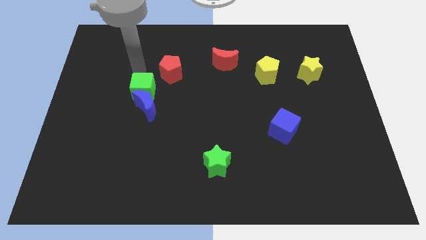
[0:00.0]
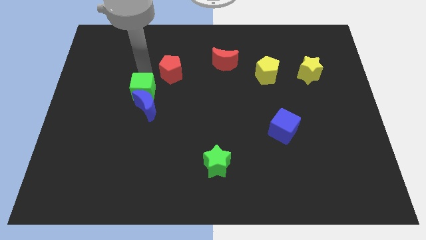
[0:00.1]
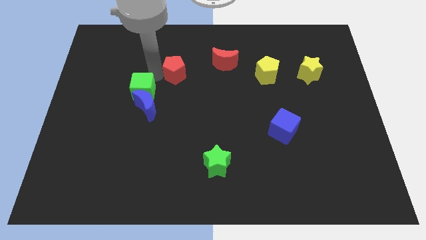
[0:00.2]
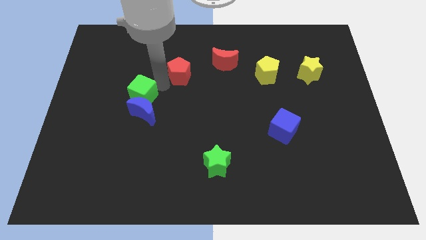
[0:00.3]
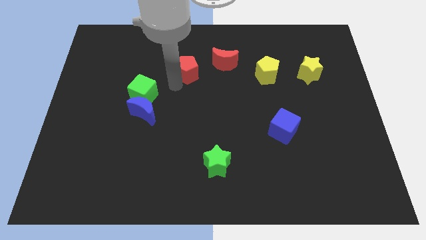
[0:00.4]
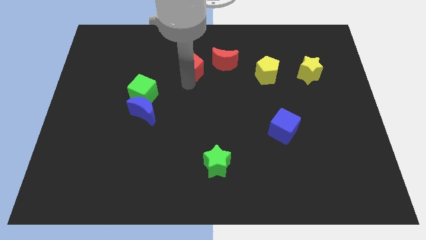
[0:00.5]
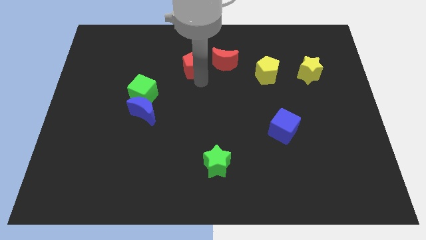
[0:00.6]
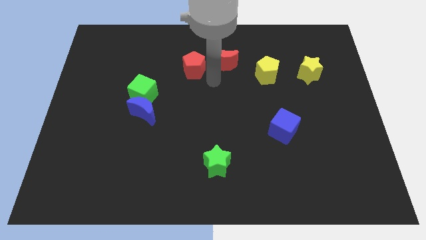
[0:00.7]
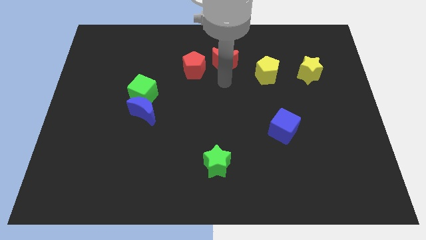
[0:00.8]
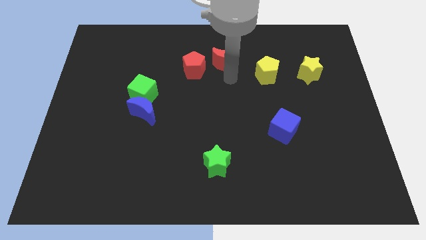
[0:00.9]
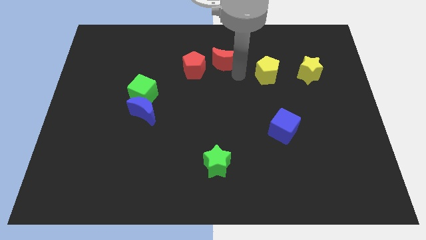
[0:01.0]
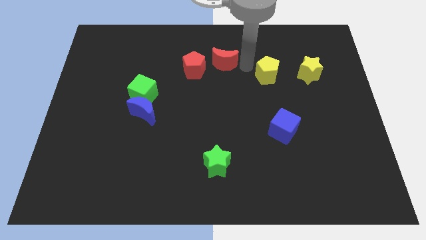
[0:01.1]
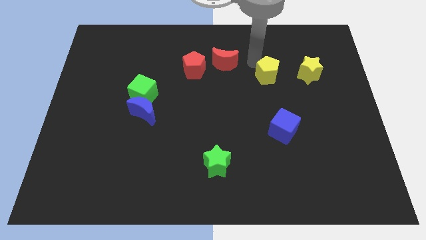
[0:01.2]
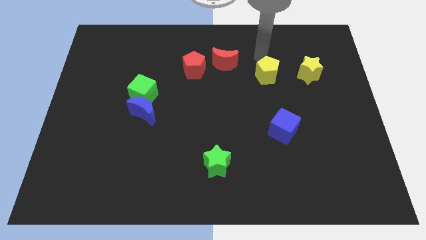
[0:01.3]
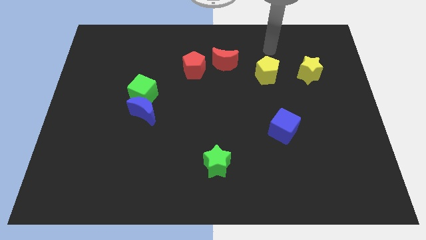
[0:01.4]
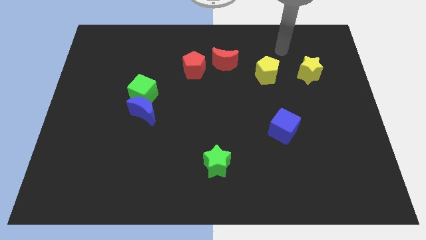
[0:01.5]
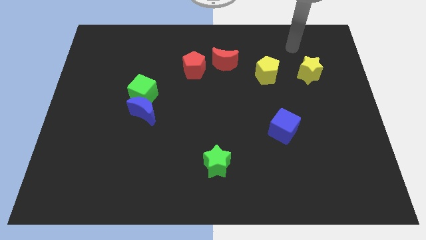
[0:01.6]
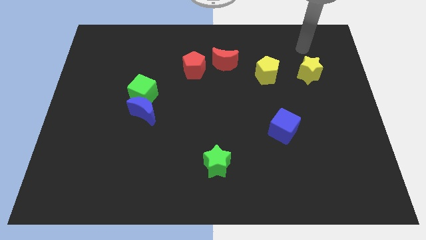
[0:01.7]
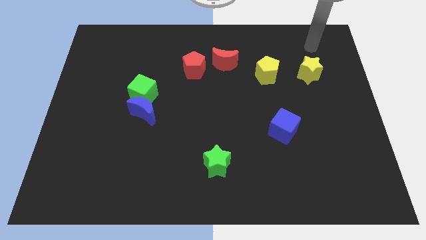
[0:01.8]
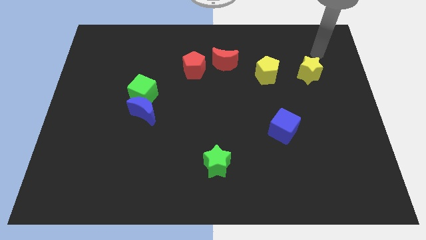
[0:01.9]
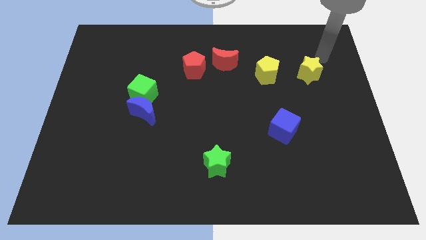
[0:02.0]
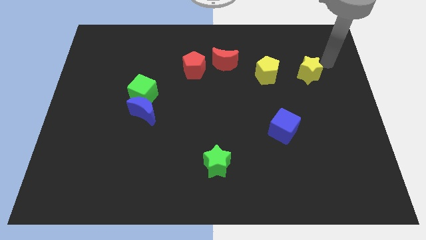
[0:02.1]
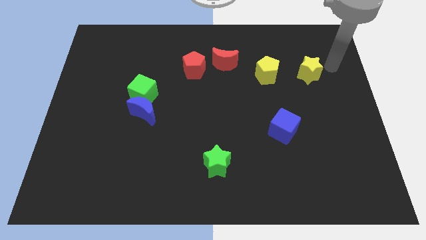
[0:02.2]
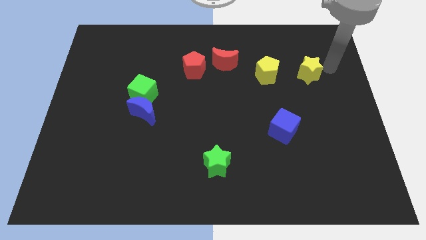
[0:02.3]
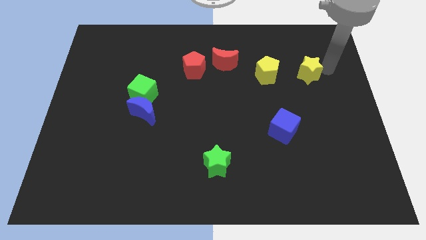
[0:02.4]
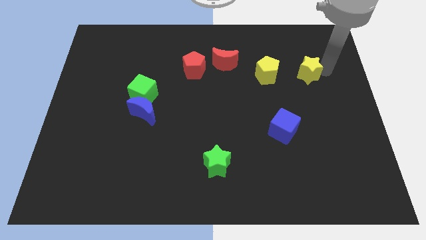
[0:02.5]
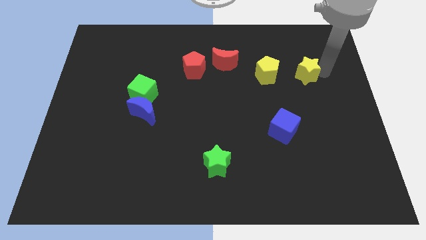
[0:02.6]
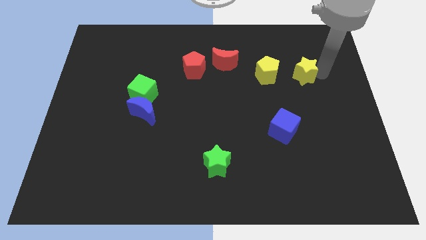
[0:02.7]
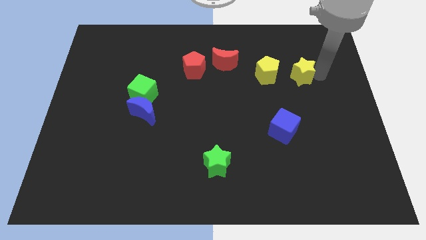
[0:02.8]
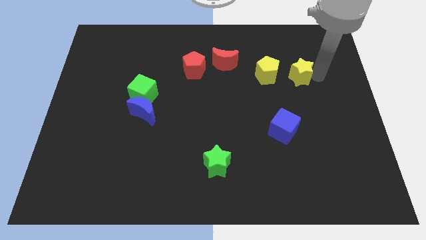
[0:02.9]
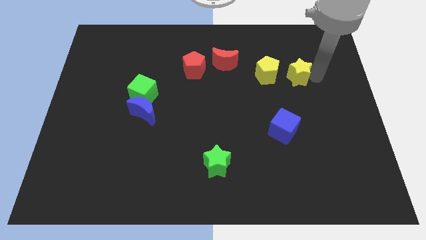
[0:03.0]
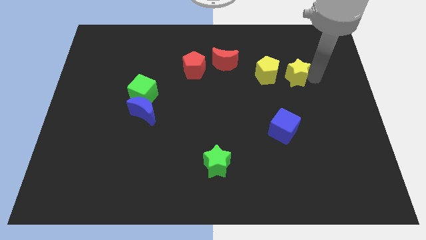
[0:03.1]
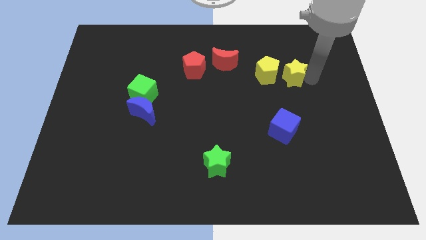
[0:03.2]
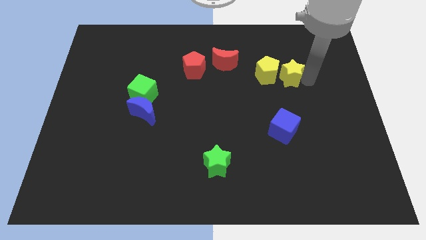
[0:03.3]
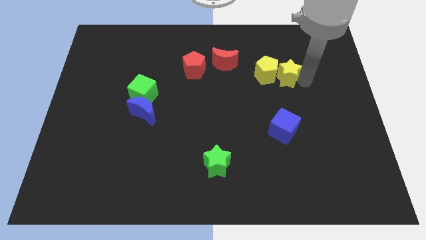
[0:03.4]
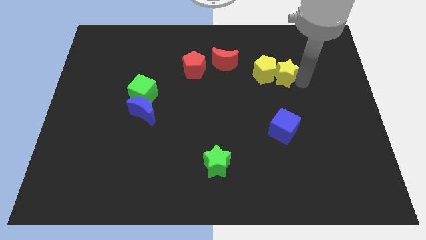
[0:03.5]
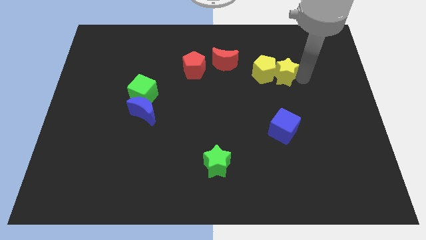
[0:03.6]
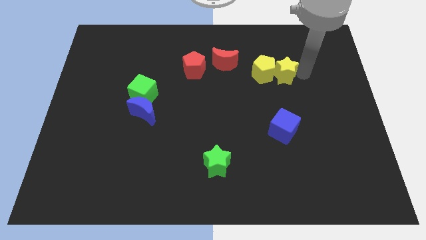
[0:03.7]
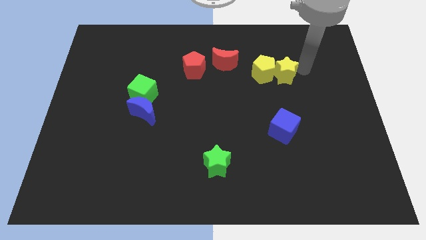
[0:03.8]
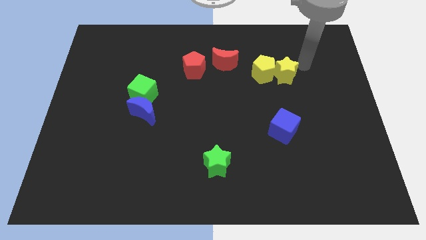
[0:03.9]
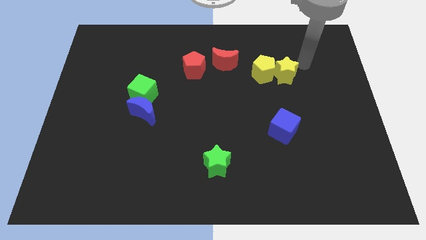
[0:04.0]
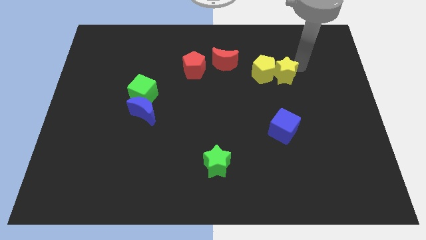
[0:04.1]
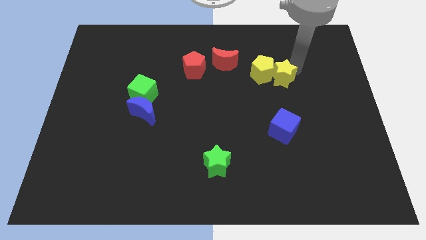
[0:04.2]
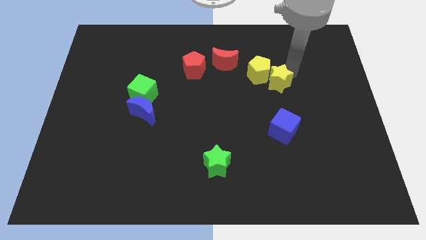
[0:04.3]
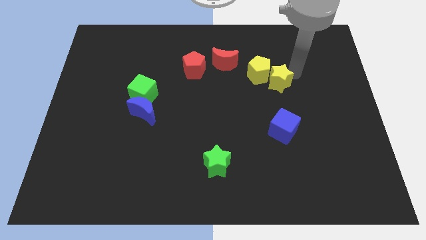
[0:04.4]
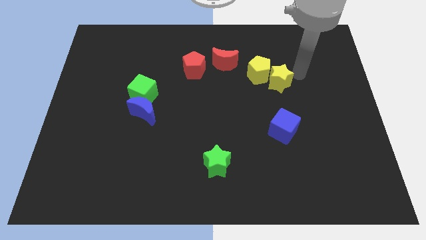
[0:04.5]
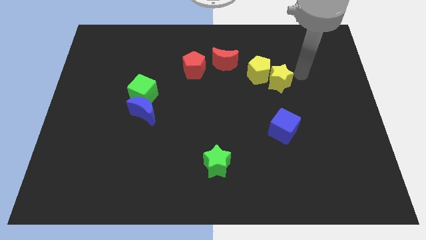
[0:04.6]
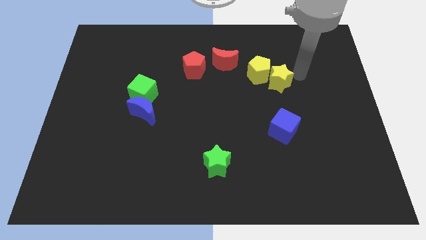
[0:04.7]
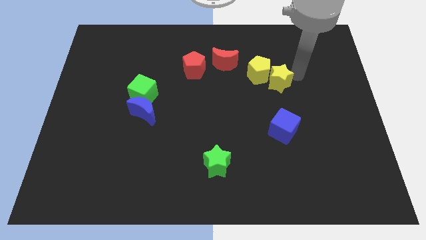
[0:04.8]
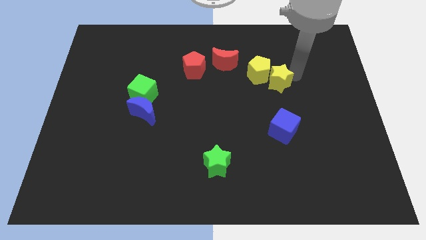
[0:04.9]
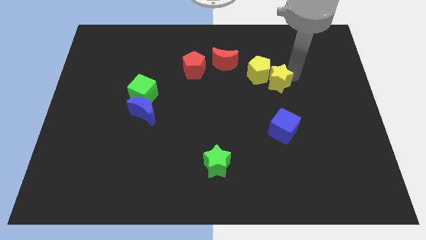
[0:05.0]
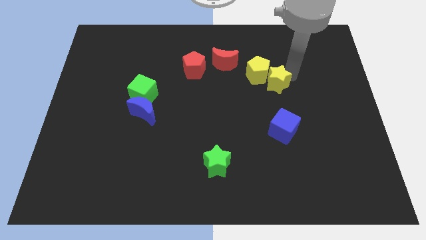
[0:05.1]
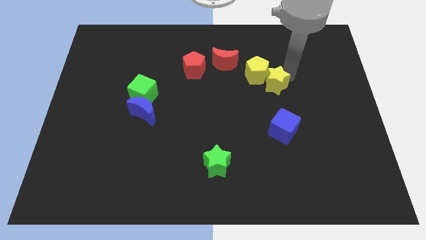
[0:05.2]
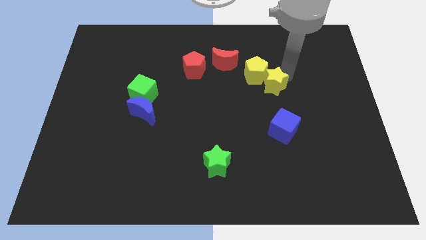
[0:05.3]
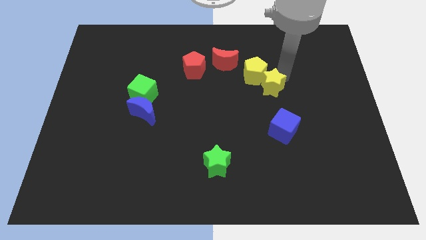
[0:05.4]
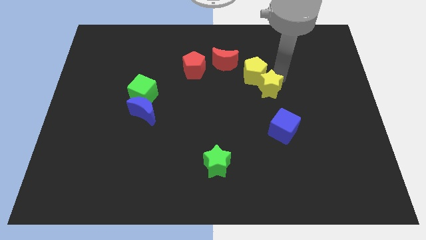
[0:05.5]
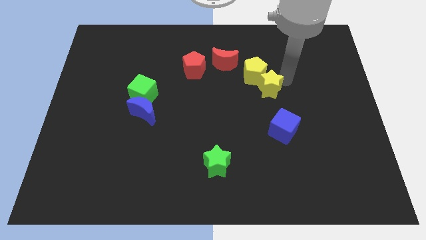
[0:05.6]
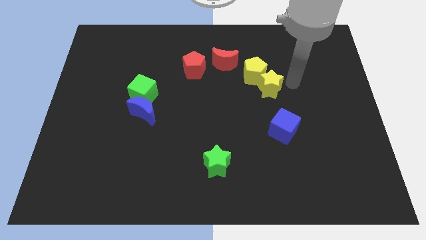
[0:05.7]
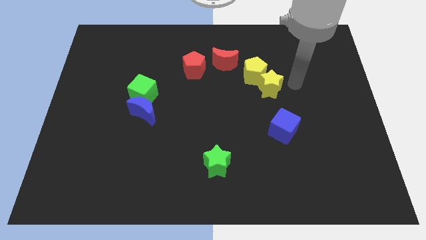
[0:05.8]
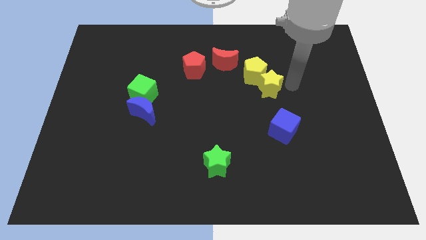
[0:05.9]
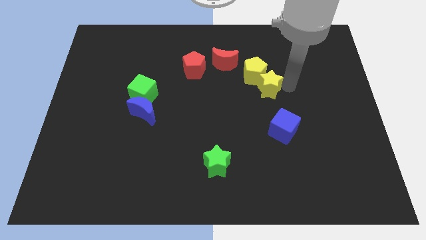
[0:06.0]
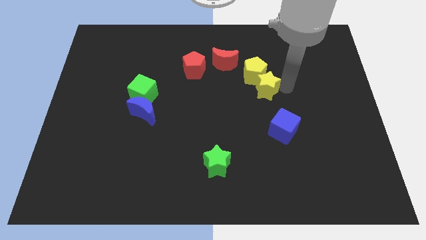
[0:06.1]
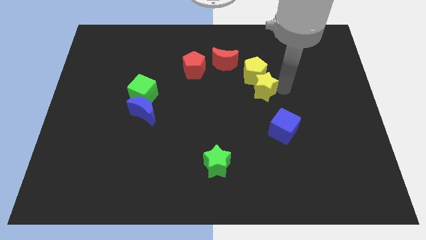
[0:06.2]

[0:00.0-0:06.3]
push the yellow star to the middle

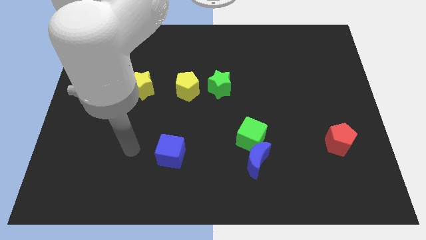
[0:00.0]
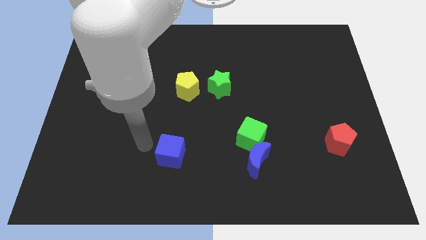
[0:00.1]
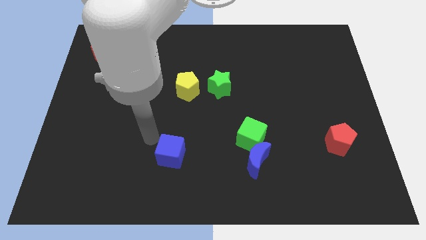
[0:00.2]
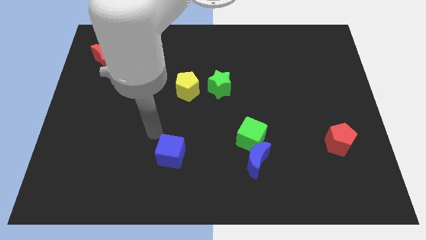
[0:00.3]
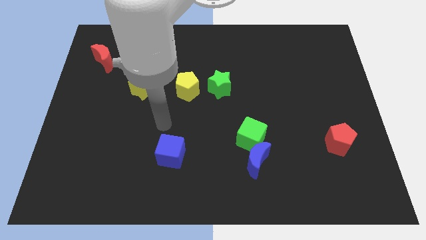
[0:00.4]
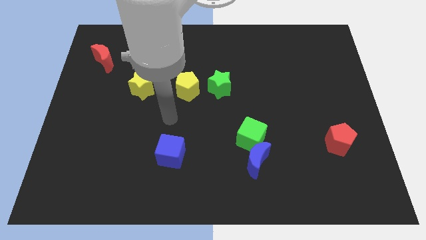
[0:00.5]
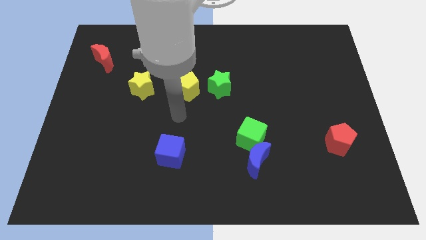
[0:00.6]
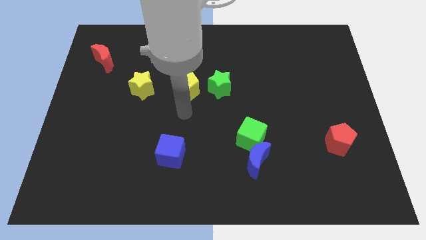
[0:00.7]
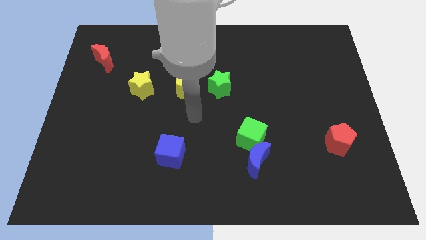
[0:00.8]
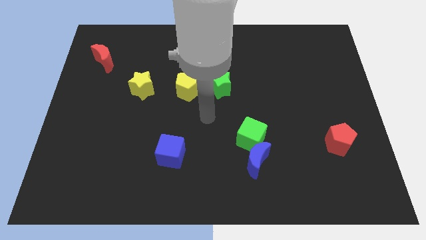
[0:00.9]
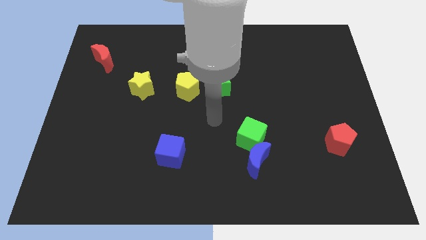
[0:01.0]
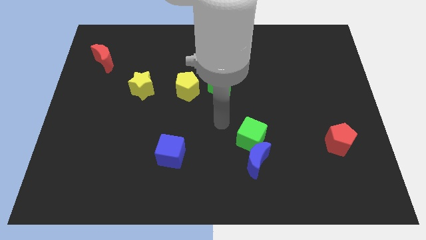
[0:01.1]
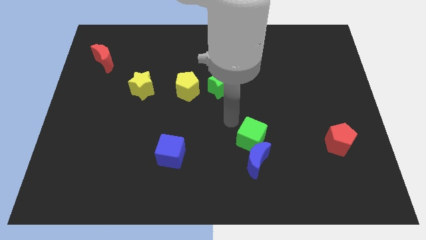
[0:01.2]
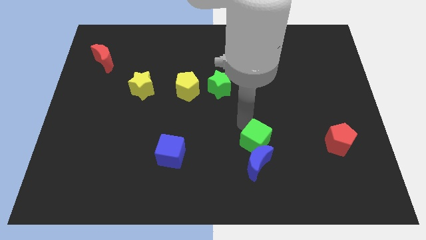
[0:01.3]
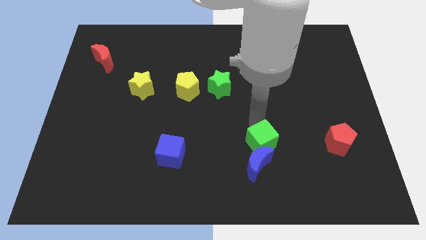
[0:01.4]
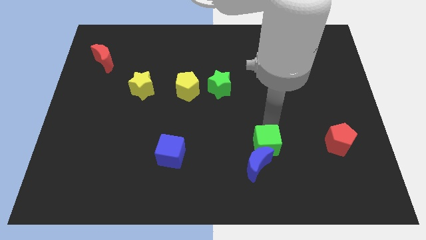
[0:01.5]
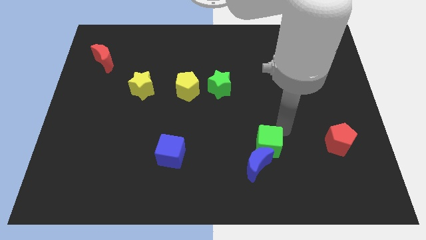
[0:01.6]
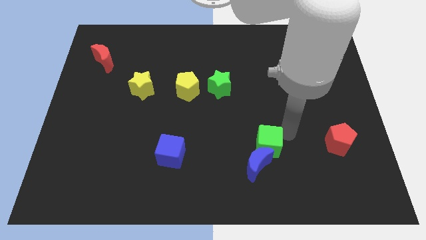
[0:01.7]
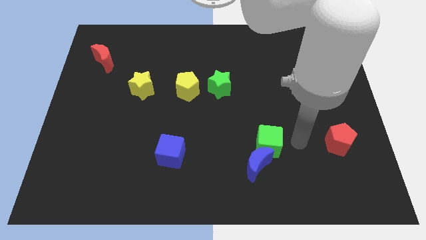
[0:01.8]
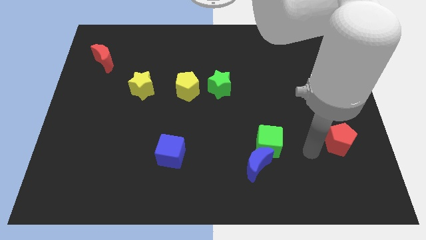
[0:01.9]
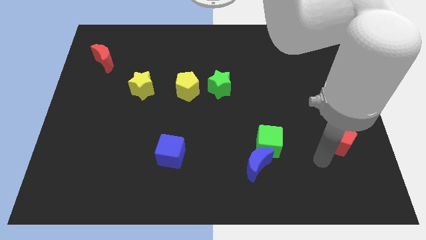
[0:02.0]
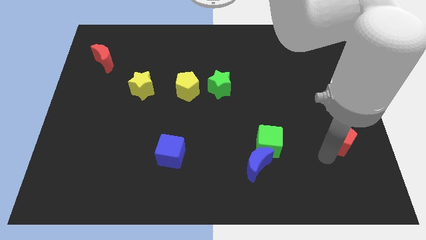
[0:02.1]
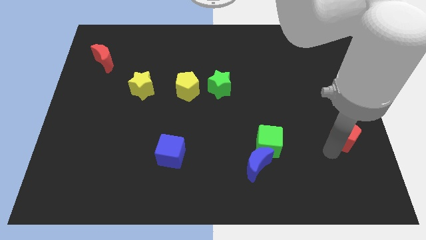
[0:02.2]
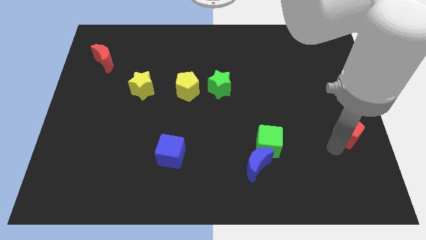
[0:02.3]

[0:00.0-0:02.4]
push the red pentagon to the right side
